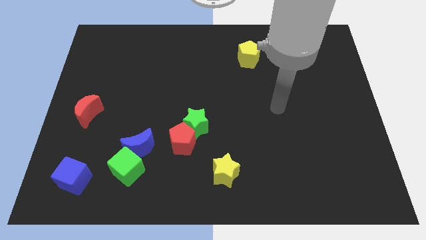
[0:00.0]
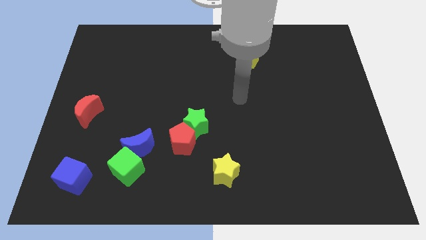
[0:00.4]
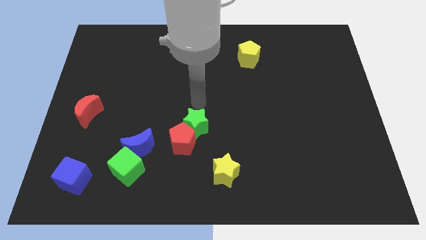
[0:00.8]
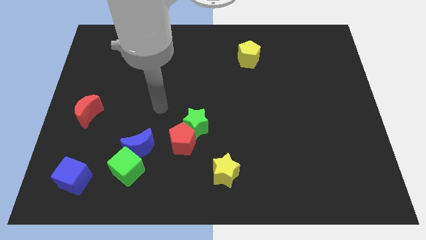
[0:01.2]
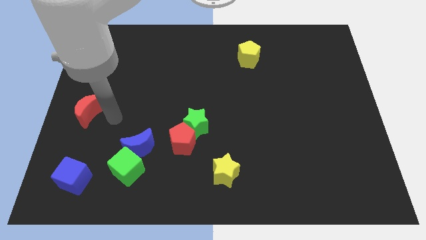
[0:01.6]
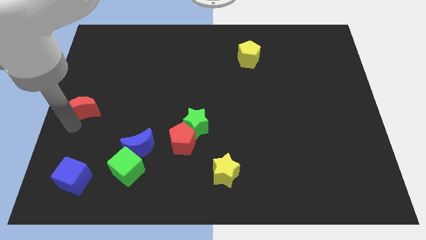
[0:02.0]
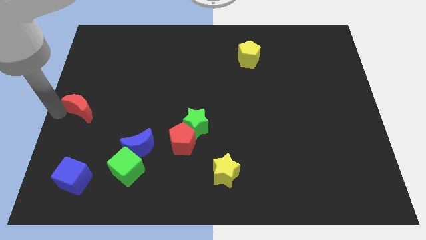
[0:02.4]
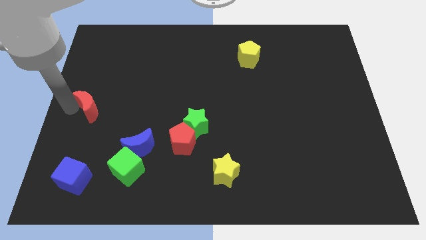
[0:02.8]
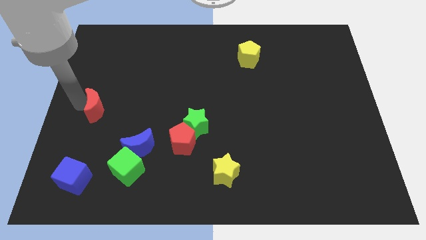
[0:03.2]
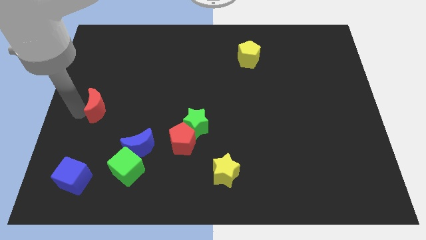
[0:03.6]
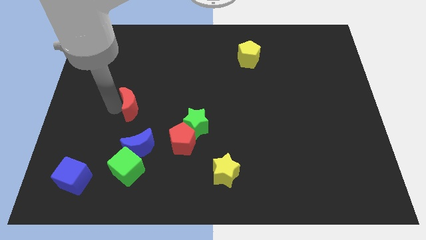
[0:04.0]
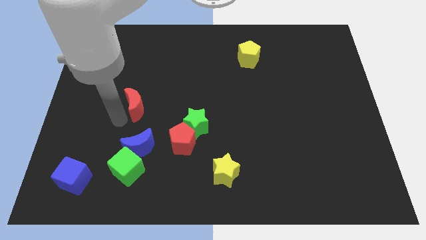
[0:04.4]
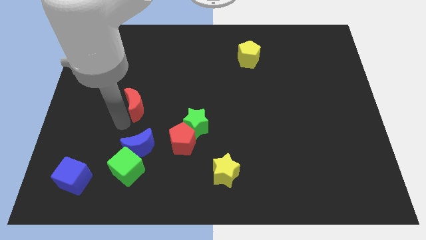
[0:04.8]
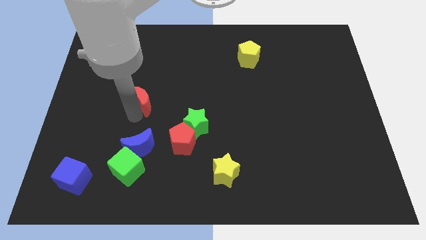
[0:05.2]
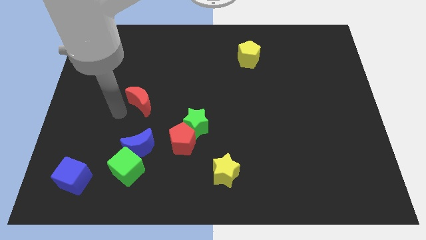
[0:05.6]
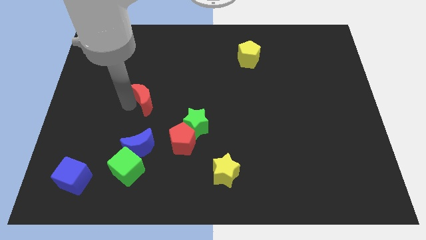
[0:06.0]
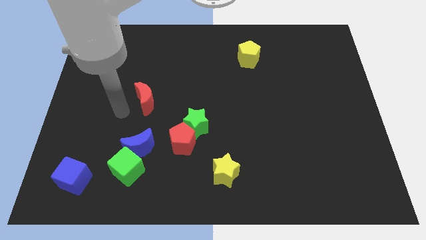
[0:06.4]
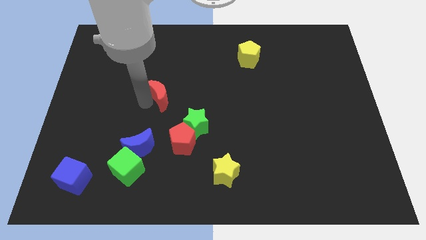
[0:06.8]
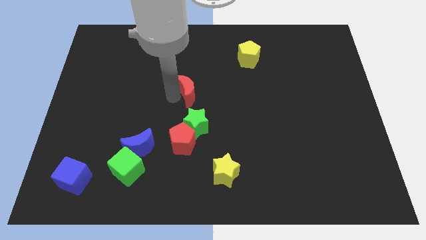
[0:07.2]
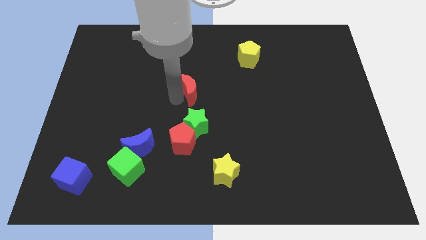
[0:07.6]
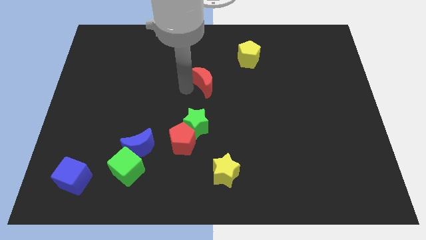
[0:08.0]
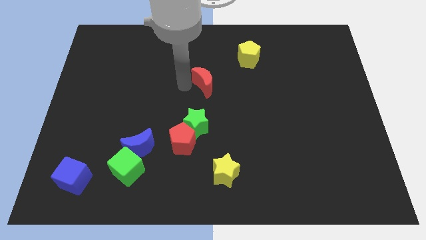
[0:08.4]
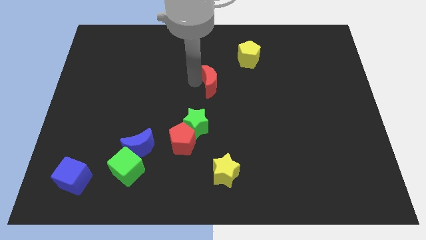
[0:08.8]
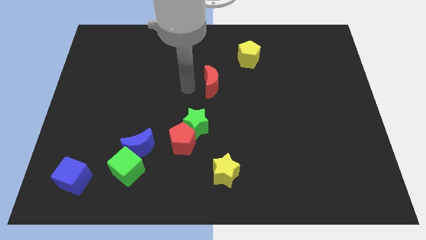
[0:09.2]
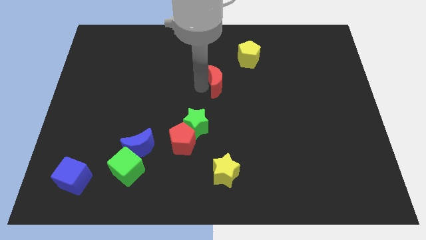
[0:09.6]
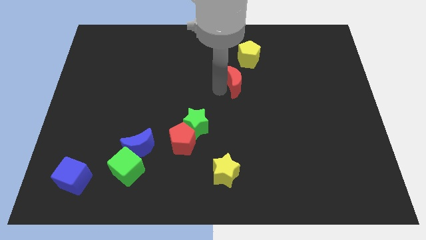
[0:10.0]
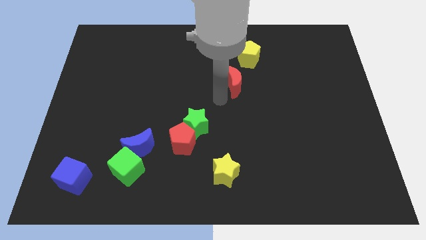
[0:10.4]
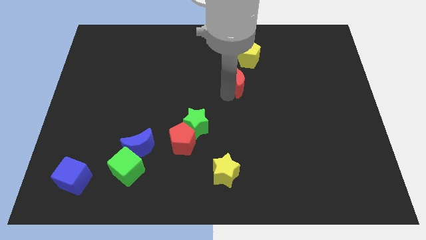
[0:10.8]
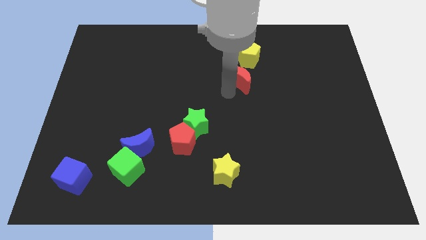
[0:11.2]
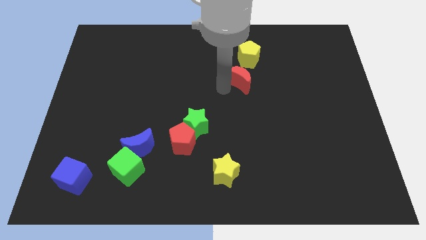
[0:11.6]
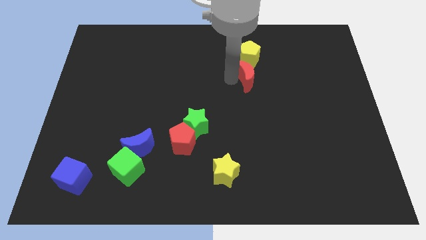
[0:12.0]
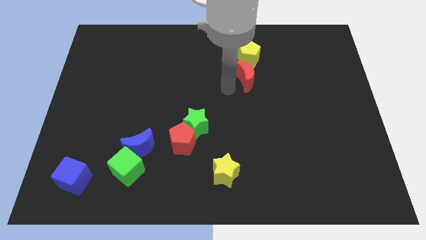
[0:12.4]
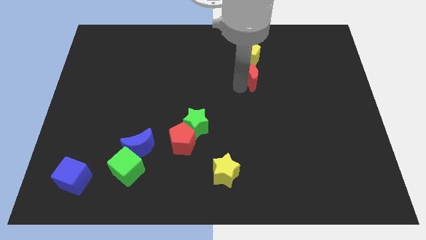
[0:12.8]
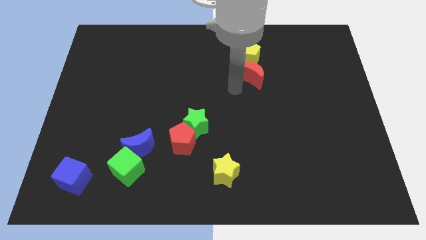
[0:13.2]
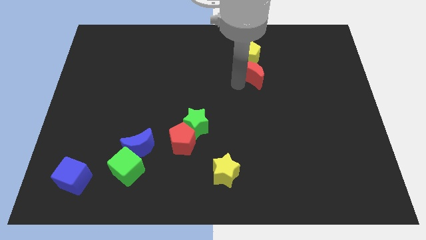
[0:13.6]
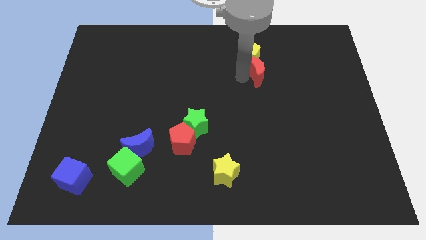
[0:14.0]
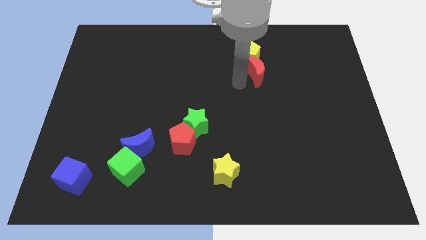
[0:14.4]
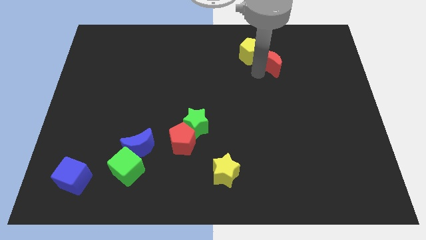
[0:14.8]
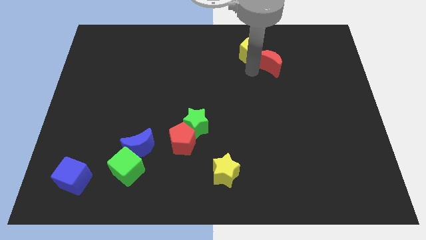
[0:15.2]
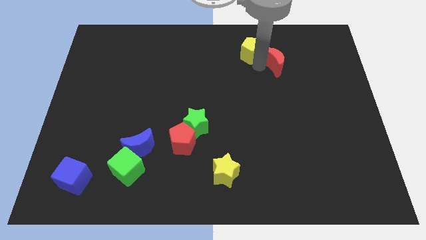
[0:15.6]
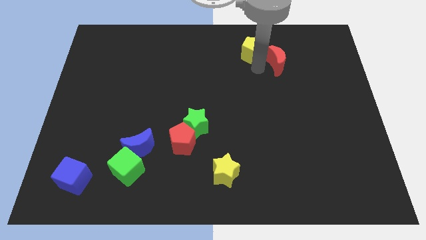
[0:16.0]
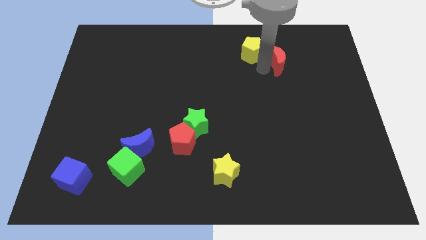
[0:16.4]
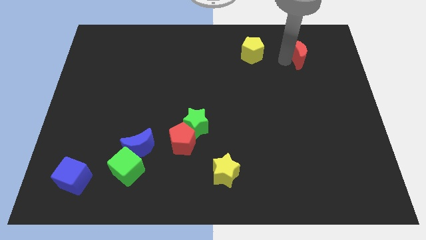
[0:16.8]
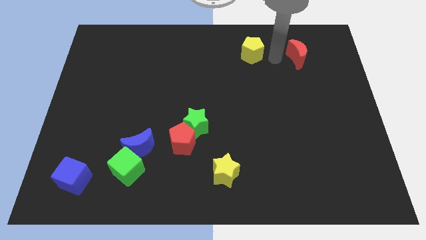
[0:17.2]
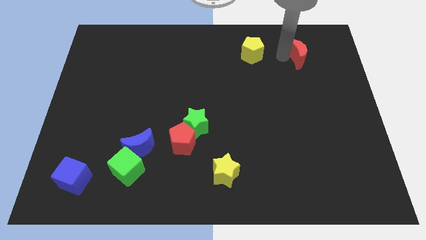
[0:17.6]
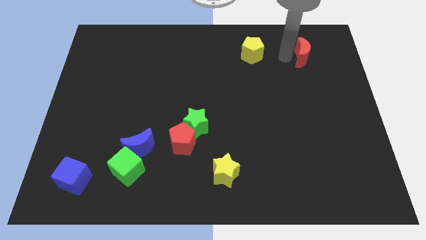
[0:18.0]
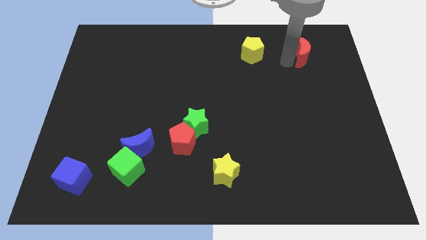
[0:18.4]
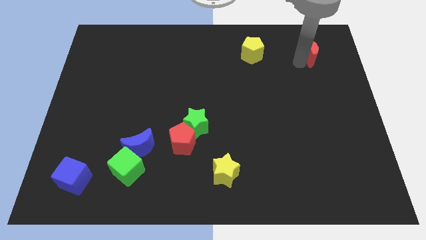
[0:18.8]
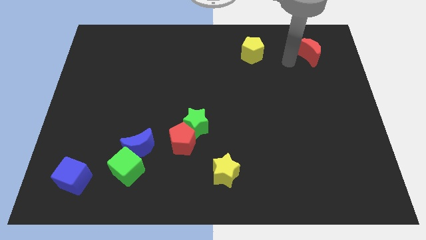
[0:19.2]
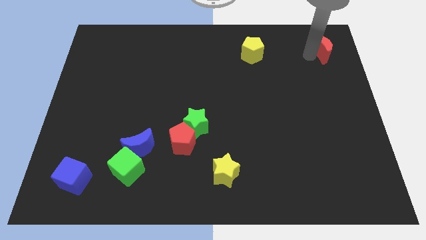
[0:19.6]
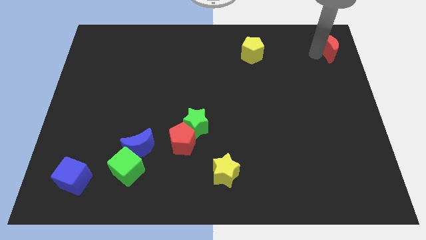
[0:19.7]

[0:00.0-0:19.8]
slide the red moon to the top right

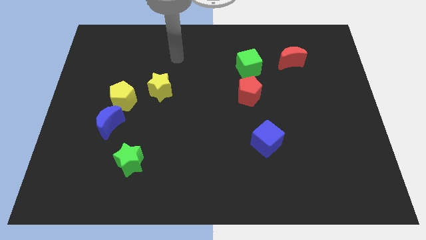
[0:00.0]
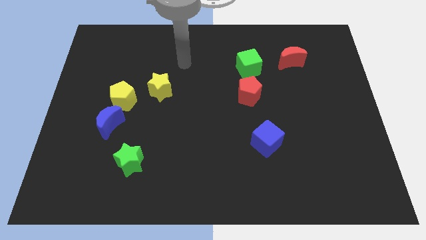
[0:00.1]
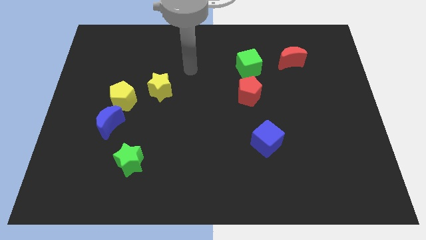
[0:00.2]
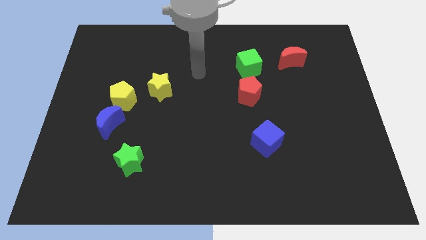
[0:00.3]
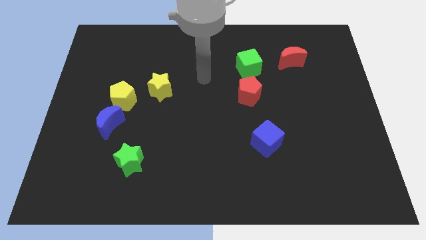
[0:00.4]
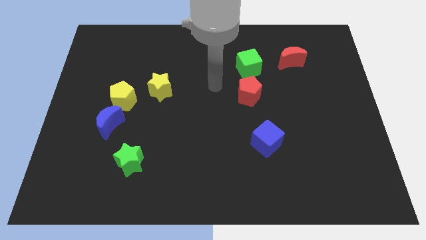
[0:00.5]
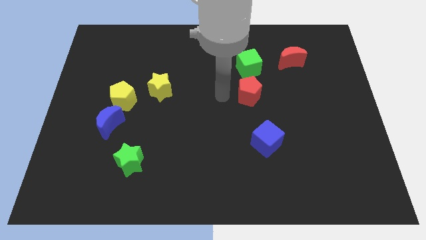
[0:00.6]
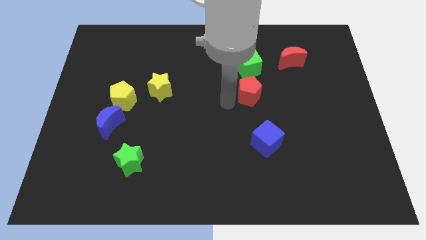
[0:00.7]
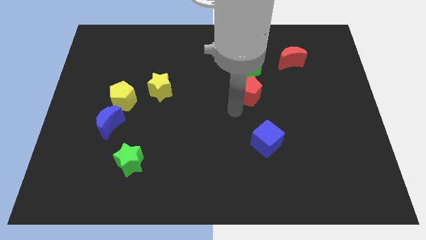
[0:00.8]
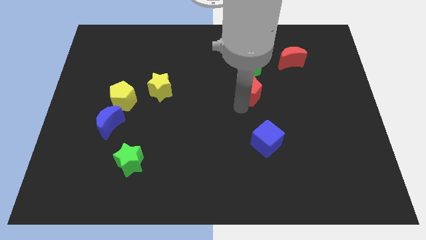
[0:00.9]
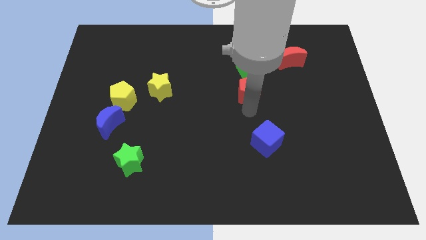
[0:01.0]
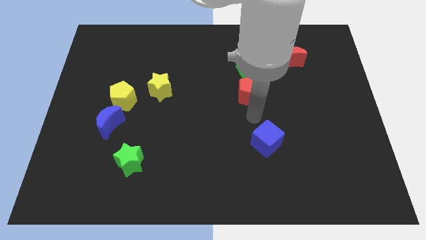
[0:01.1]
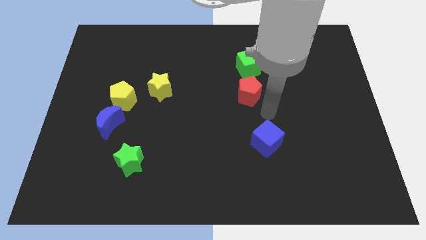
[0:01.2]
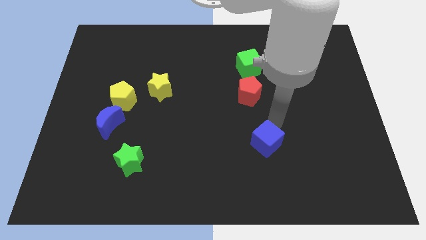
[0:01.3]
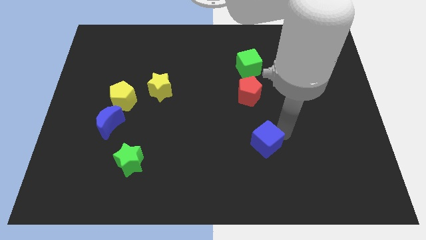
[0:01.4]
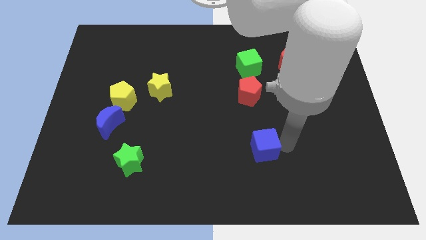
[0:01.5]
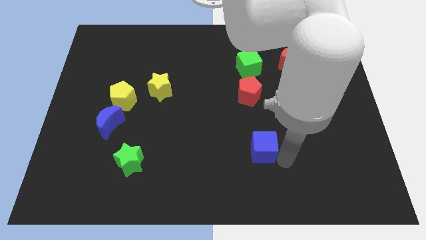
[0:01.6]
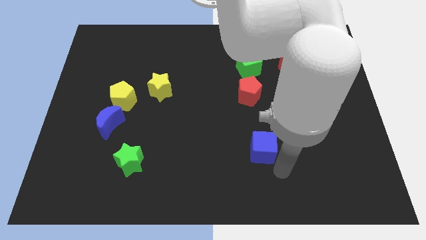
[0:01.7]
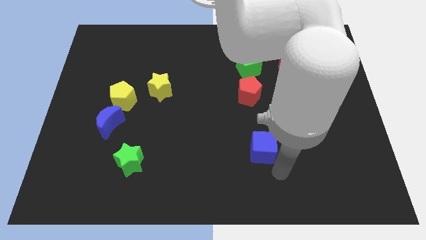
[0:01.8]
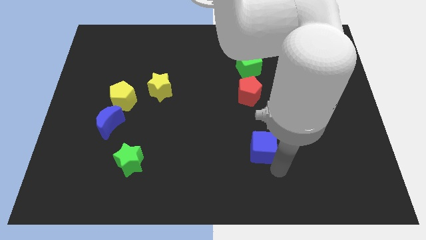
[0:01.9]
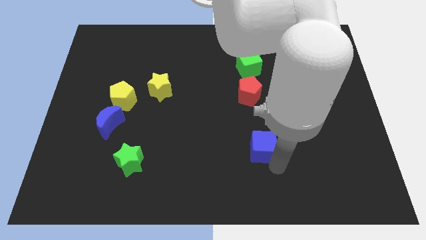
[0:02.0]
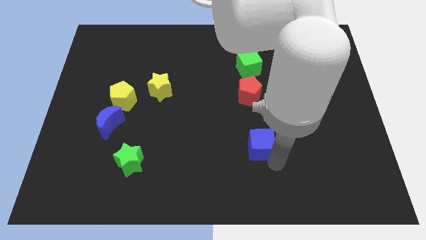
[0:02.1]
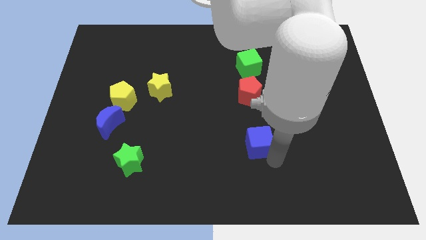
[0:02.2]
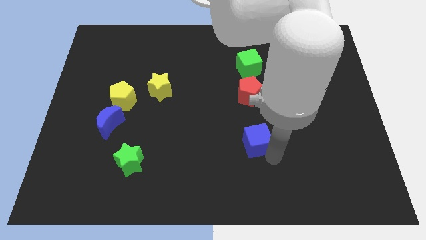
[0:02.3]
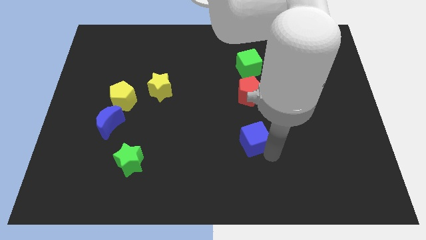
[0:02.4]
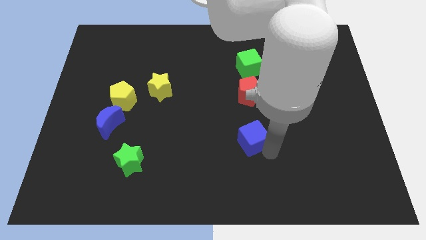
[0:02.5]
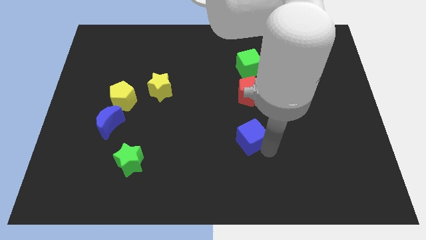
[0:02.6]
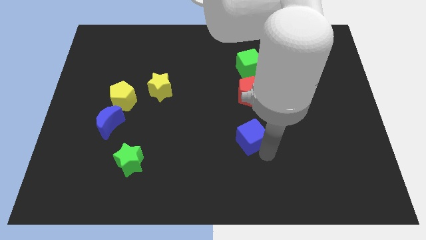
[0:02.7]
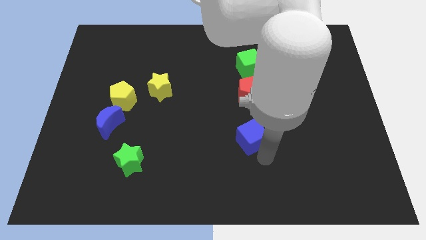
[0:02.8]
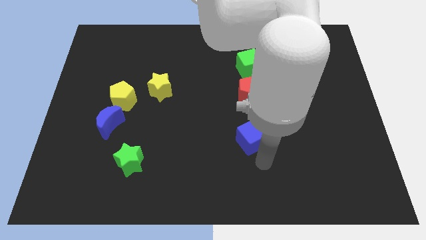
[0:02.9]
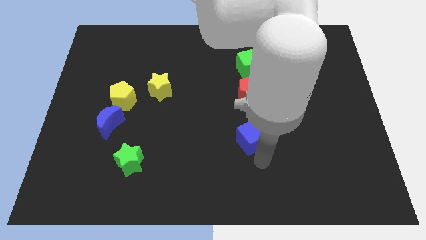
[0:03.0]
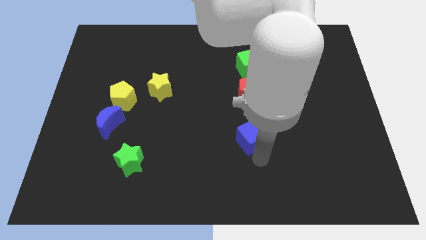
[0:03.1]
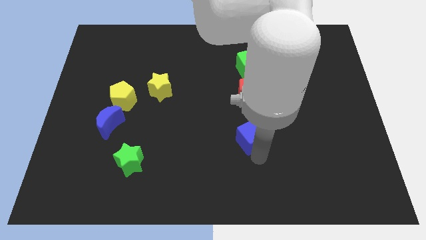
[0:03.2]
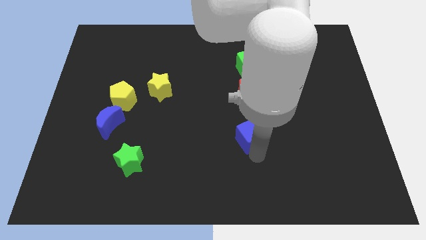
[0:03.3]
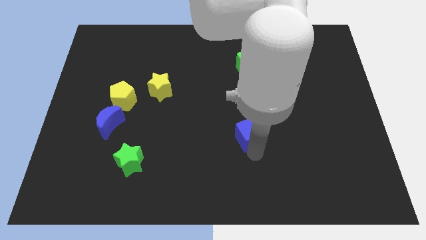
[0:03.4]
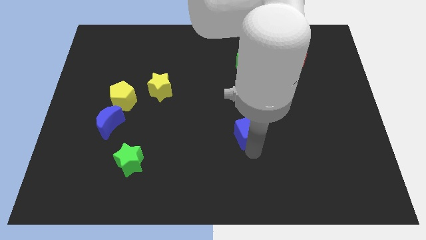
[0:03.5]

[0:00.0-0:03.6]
move the blue cube to the center
